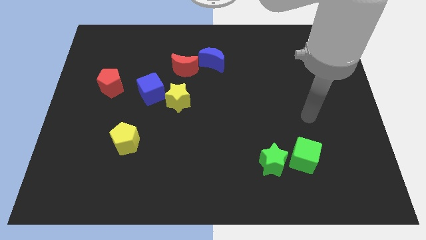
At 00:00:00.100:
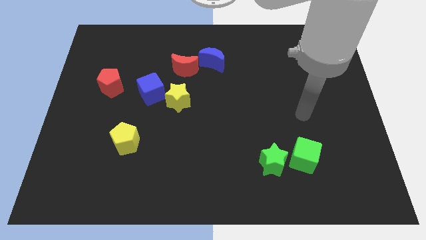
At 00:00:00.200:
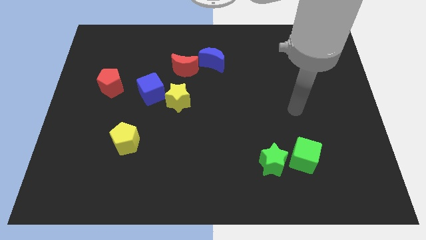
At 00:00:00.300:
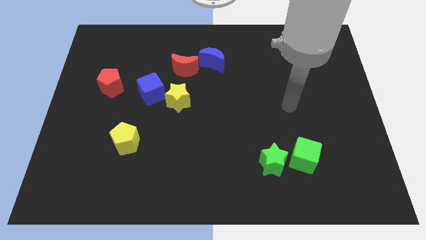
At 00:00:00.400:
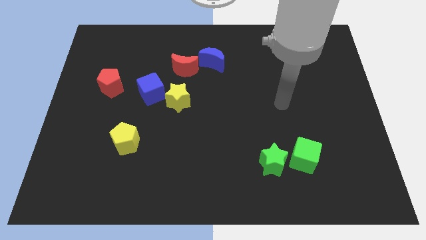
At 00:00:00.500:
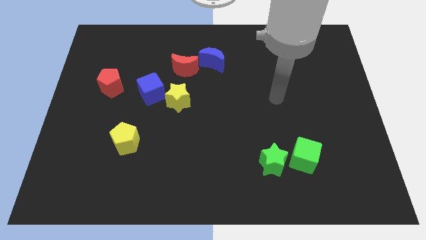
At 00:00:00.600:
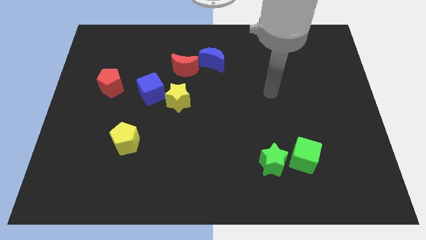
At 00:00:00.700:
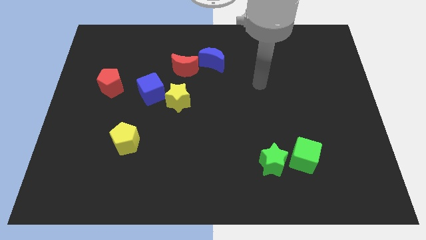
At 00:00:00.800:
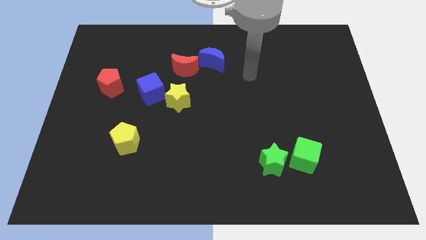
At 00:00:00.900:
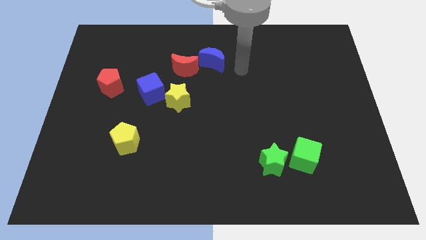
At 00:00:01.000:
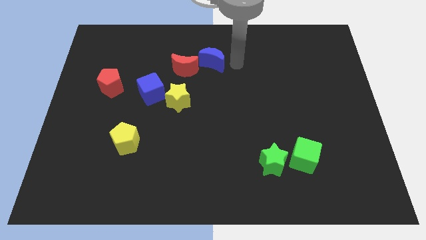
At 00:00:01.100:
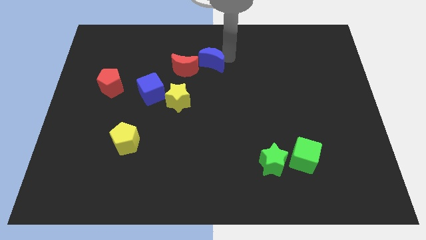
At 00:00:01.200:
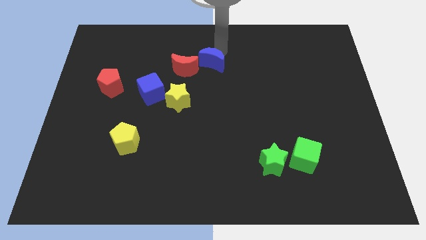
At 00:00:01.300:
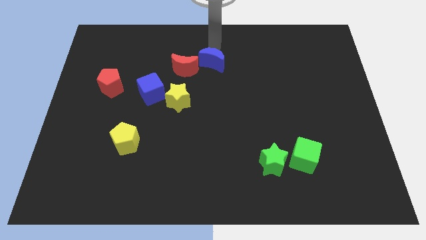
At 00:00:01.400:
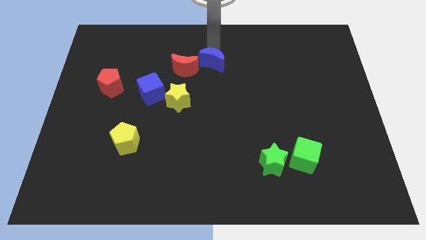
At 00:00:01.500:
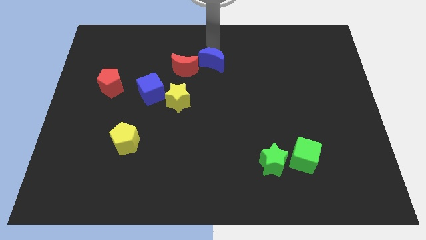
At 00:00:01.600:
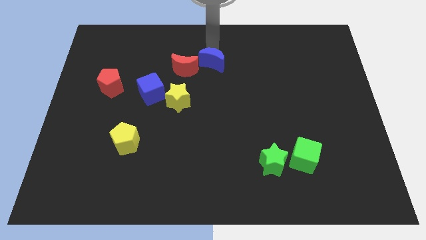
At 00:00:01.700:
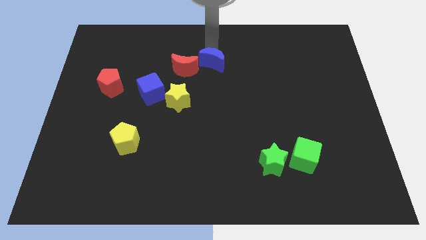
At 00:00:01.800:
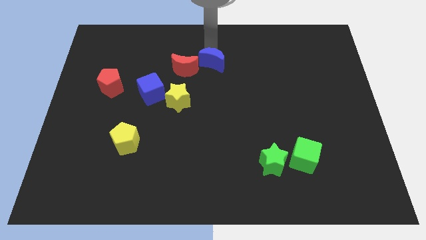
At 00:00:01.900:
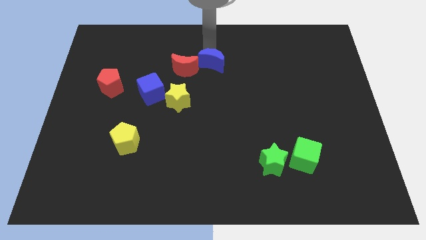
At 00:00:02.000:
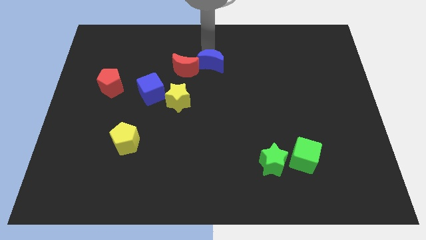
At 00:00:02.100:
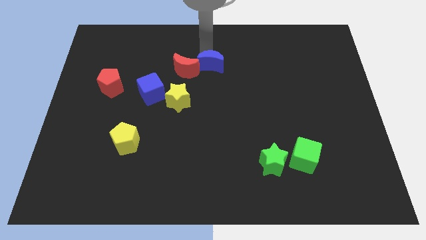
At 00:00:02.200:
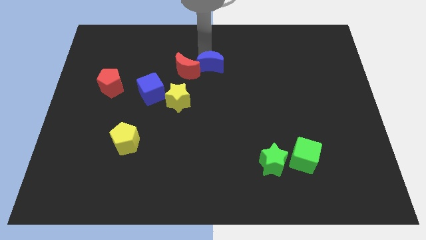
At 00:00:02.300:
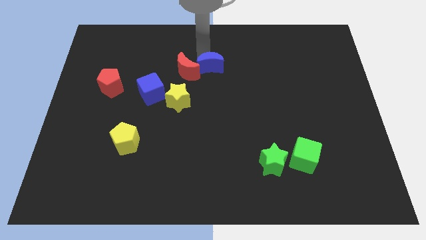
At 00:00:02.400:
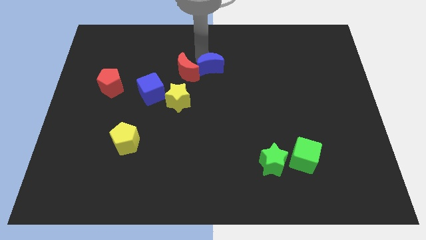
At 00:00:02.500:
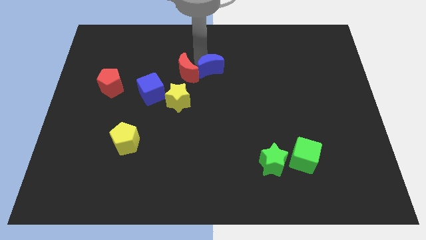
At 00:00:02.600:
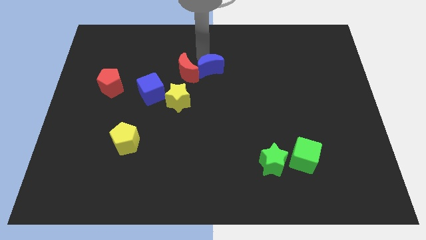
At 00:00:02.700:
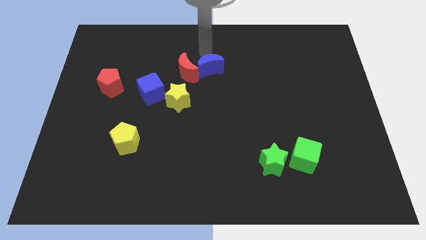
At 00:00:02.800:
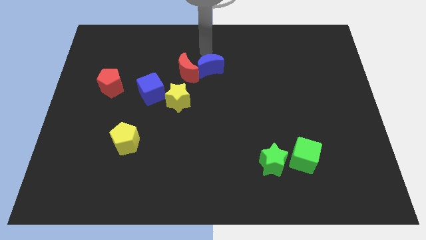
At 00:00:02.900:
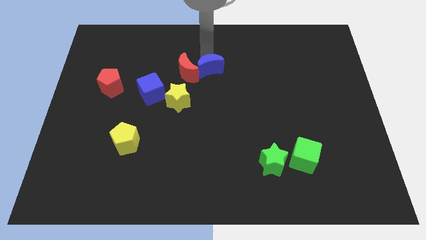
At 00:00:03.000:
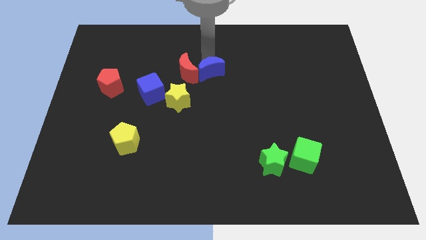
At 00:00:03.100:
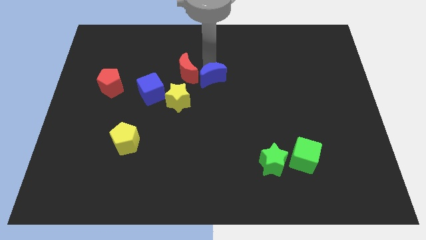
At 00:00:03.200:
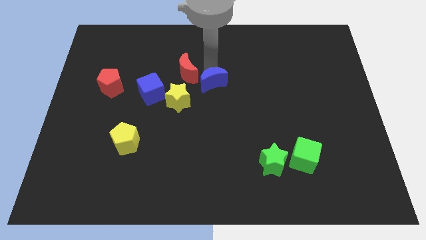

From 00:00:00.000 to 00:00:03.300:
slightly slide the blue moon downwards

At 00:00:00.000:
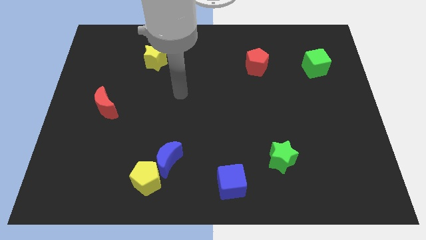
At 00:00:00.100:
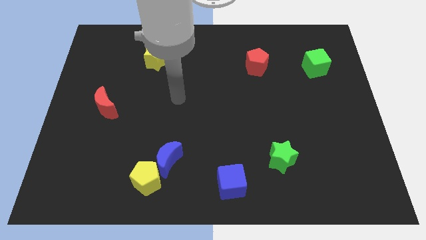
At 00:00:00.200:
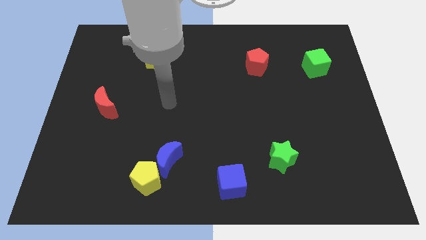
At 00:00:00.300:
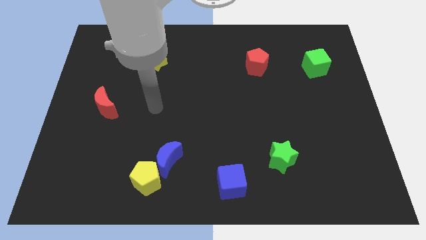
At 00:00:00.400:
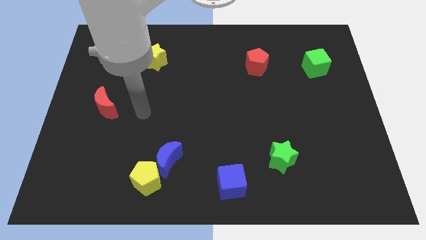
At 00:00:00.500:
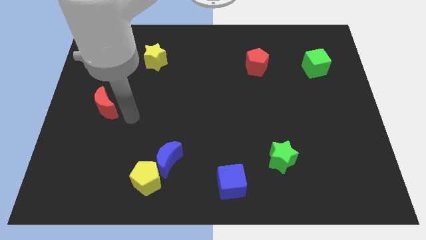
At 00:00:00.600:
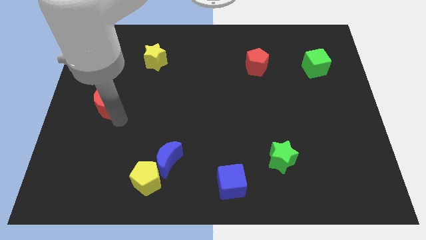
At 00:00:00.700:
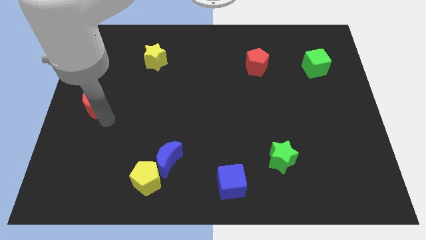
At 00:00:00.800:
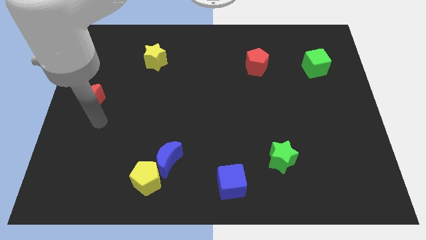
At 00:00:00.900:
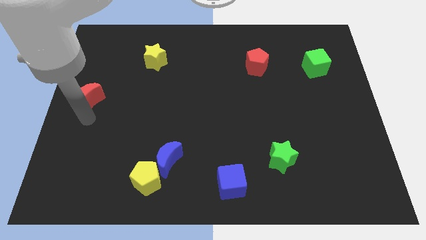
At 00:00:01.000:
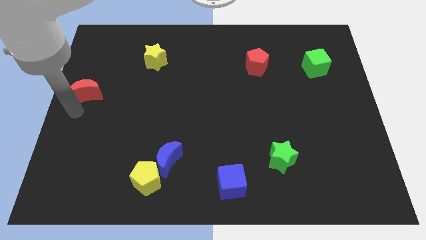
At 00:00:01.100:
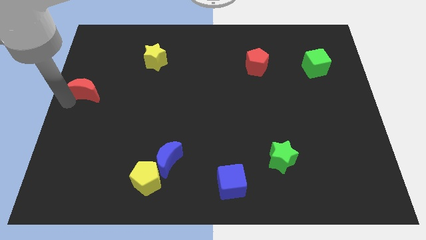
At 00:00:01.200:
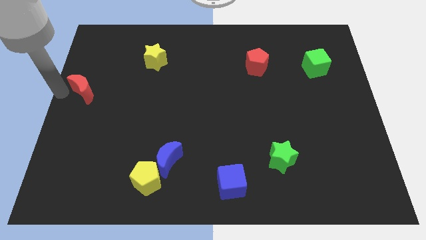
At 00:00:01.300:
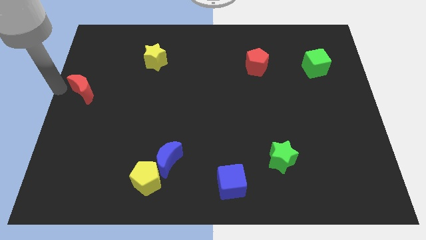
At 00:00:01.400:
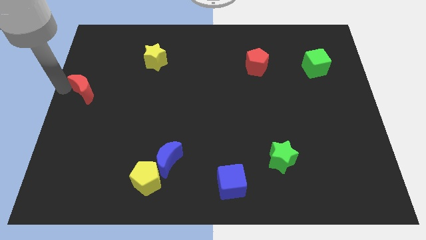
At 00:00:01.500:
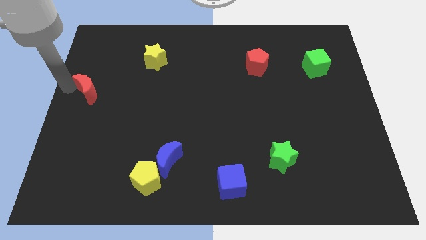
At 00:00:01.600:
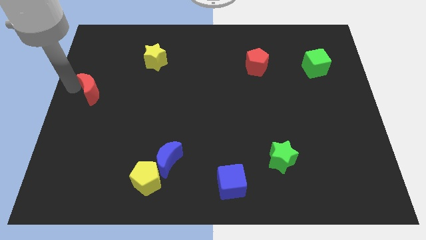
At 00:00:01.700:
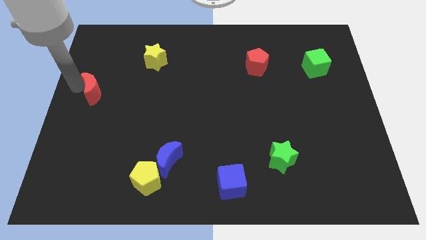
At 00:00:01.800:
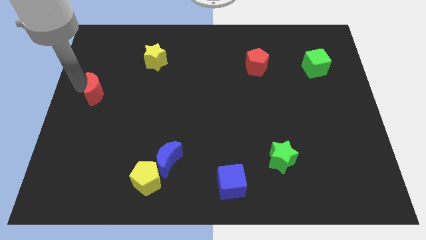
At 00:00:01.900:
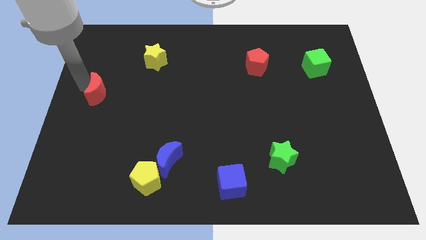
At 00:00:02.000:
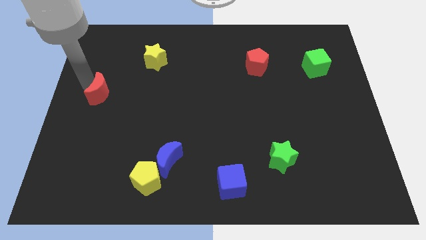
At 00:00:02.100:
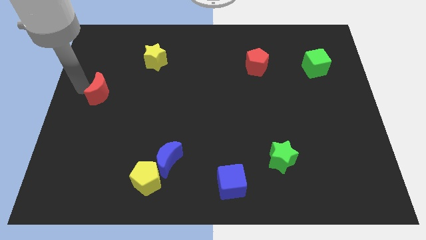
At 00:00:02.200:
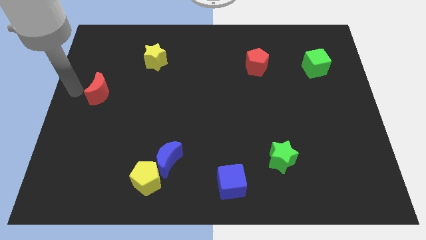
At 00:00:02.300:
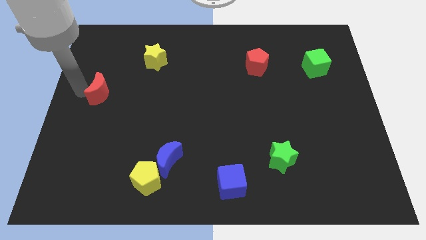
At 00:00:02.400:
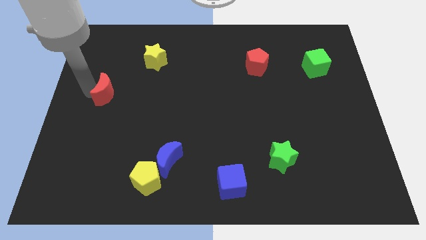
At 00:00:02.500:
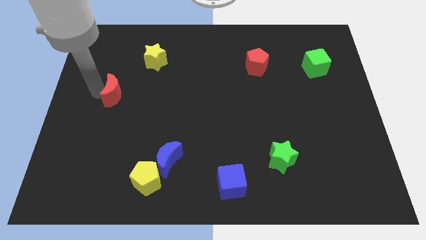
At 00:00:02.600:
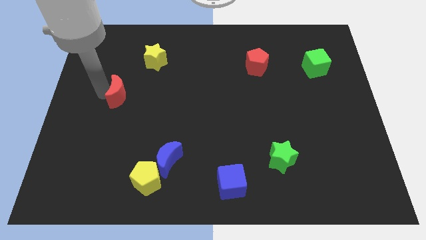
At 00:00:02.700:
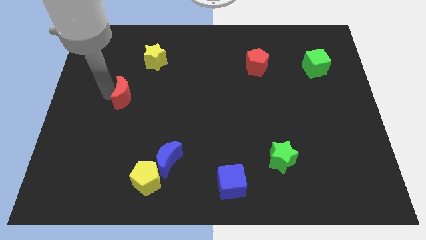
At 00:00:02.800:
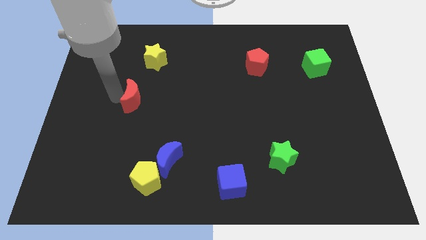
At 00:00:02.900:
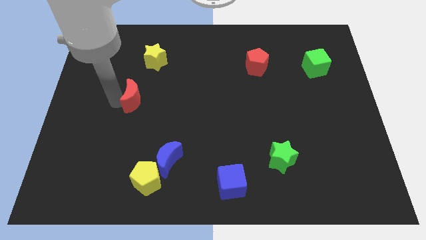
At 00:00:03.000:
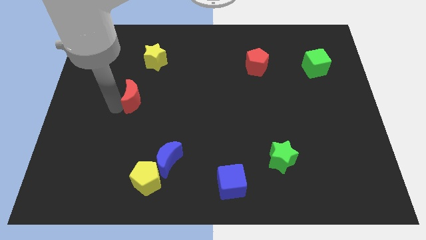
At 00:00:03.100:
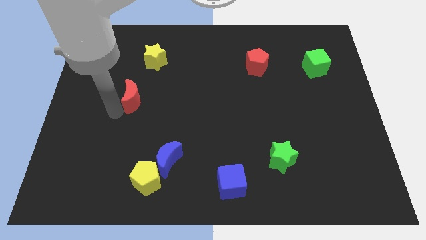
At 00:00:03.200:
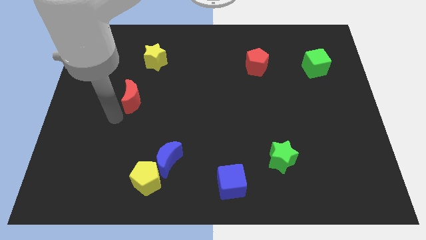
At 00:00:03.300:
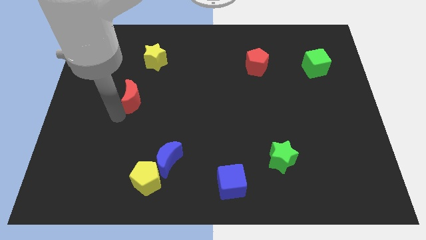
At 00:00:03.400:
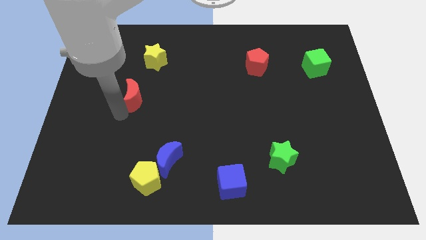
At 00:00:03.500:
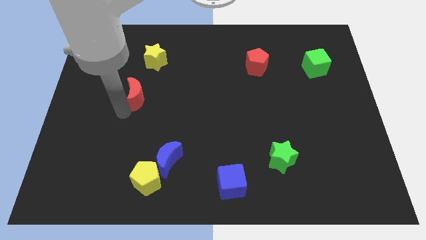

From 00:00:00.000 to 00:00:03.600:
move the red moon diagonally up and to the right a little bit

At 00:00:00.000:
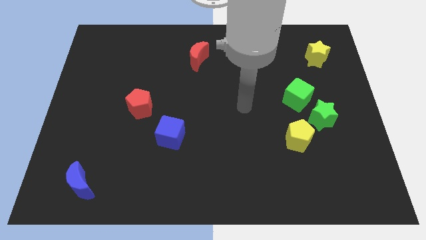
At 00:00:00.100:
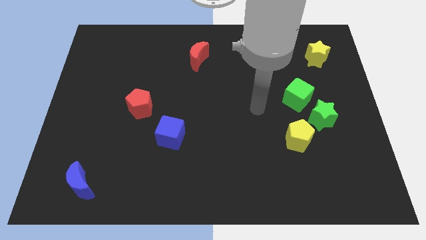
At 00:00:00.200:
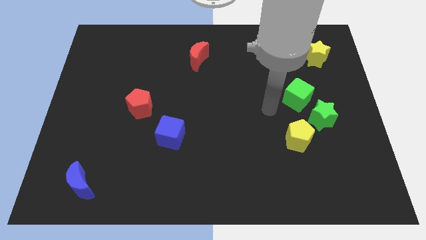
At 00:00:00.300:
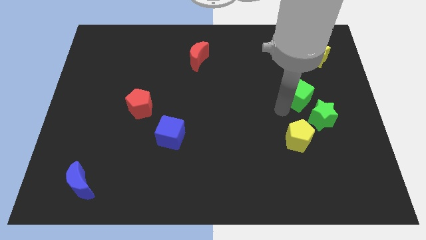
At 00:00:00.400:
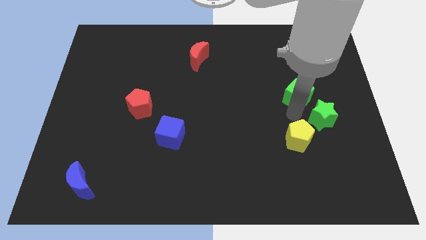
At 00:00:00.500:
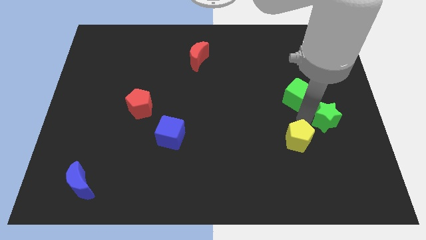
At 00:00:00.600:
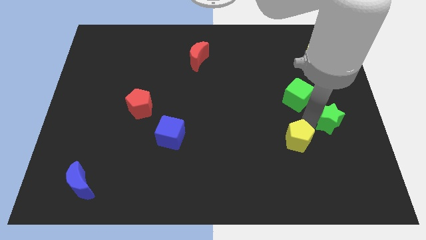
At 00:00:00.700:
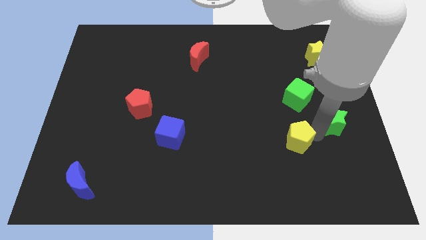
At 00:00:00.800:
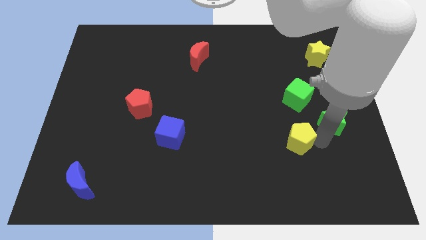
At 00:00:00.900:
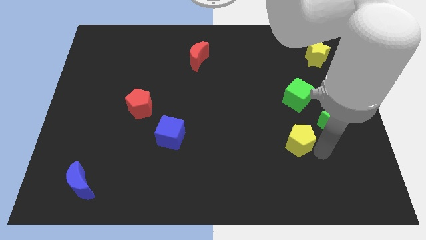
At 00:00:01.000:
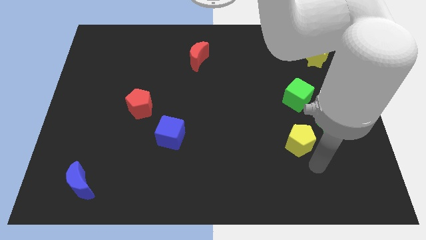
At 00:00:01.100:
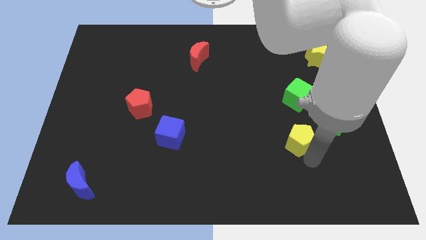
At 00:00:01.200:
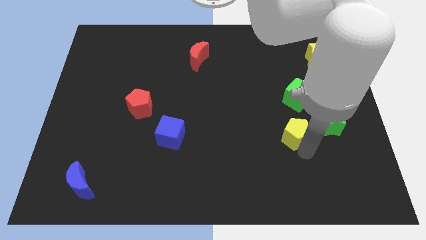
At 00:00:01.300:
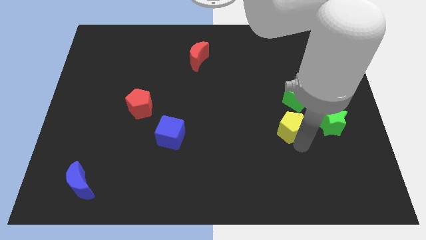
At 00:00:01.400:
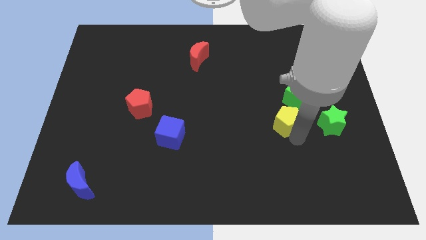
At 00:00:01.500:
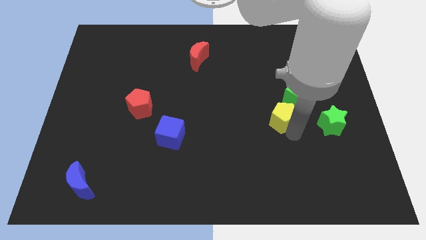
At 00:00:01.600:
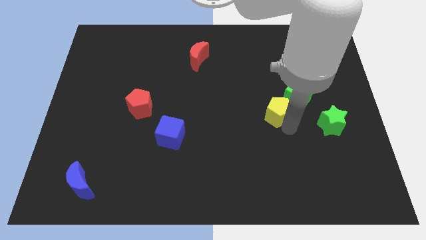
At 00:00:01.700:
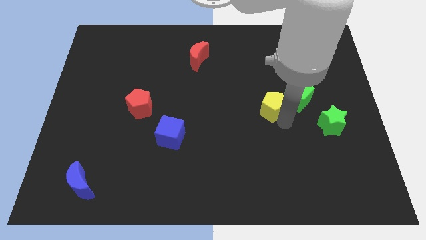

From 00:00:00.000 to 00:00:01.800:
slide the yellow pentagon a little upwards
